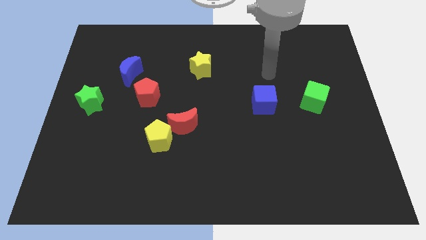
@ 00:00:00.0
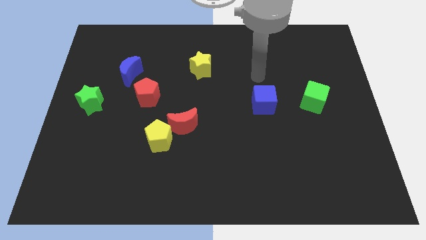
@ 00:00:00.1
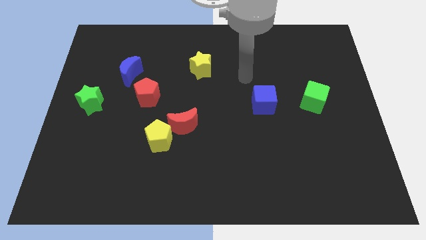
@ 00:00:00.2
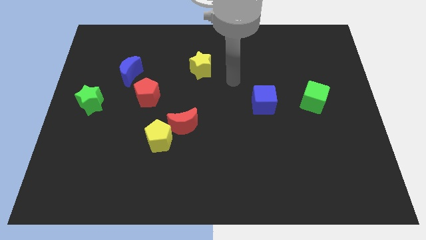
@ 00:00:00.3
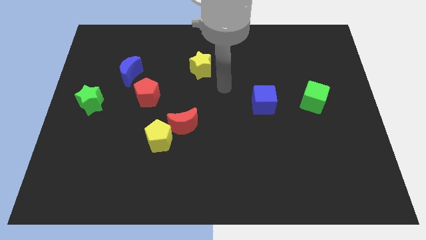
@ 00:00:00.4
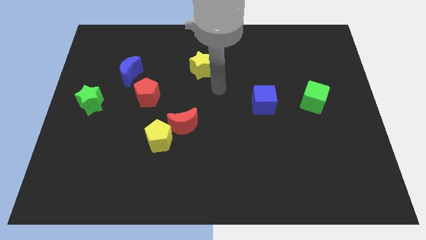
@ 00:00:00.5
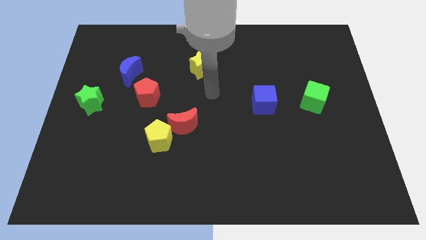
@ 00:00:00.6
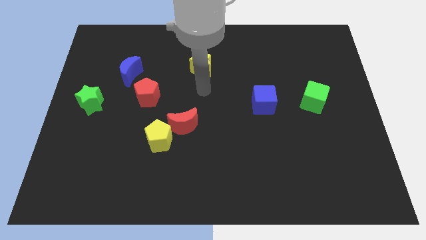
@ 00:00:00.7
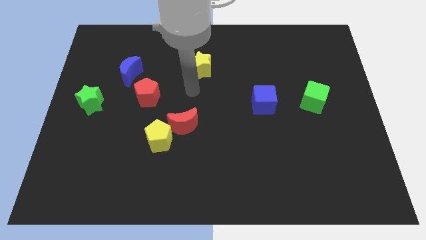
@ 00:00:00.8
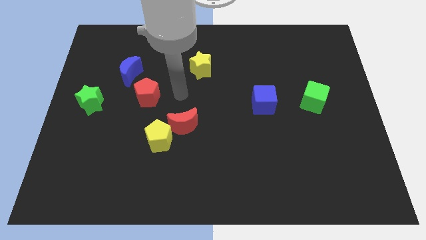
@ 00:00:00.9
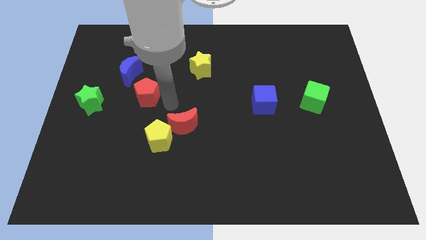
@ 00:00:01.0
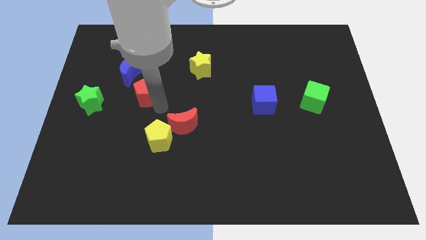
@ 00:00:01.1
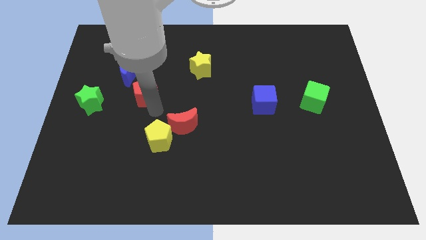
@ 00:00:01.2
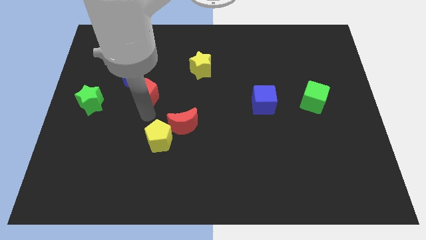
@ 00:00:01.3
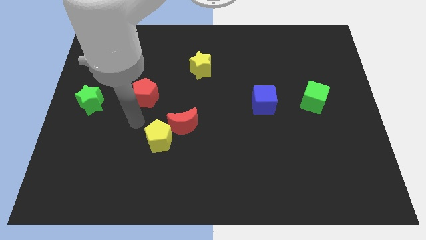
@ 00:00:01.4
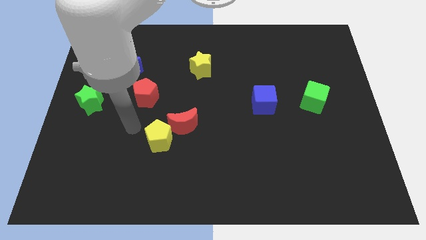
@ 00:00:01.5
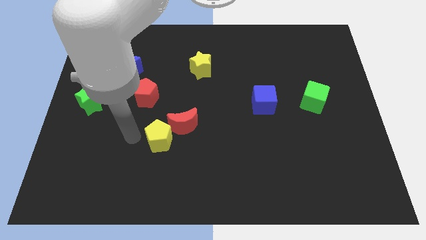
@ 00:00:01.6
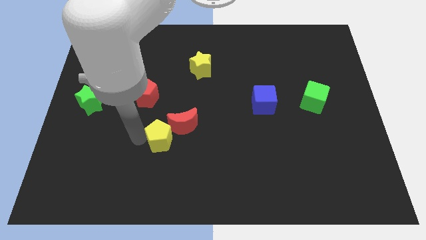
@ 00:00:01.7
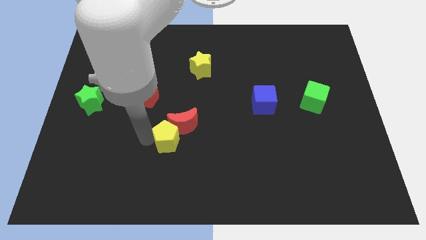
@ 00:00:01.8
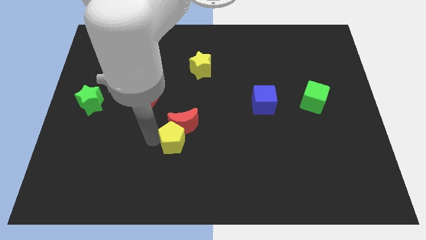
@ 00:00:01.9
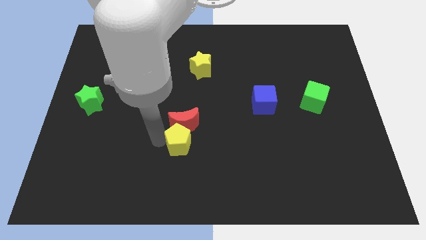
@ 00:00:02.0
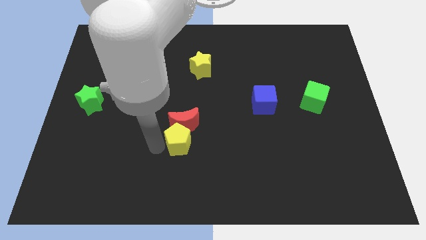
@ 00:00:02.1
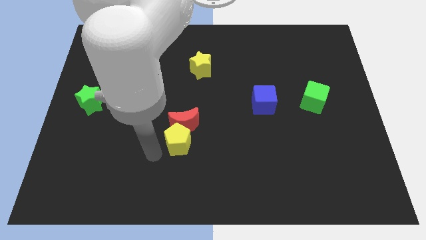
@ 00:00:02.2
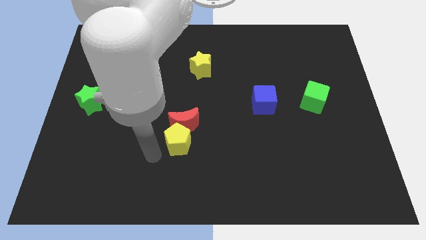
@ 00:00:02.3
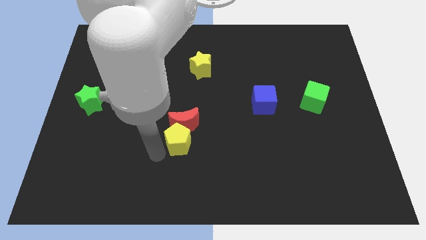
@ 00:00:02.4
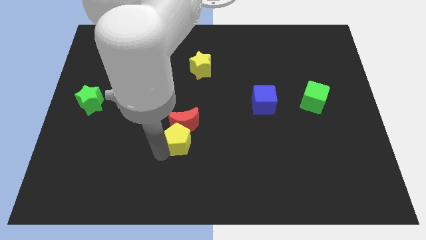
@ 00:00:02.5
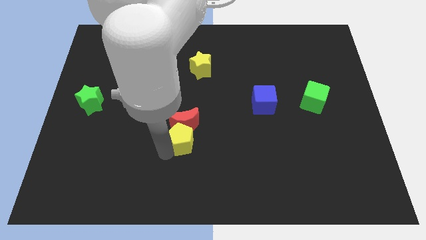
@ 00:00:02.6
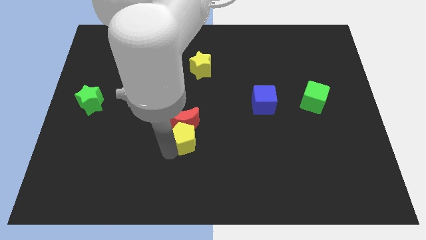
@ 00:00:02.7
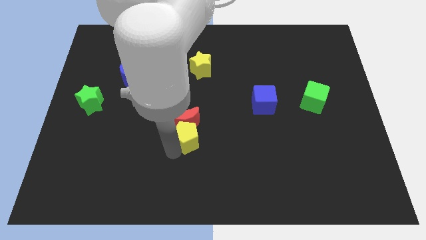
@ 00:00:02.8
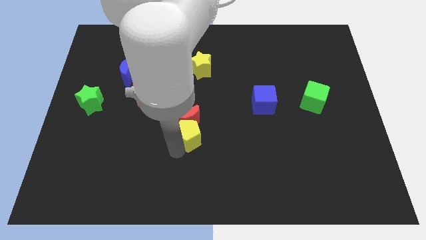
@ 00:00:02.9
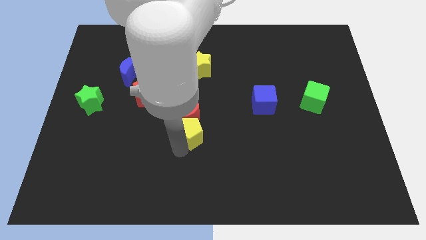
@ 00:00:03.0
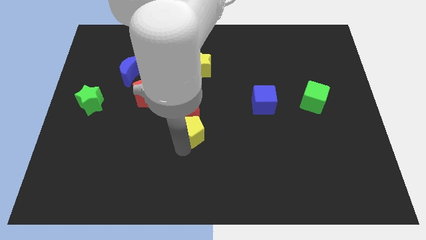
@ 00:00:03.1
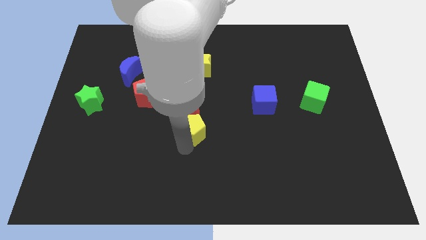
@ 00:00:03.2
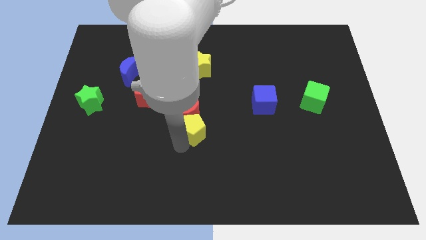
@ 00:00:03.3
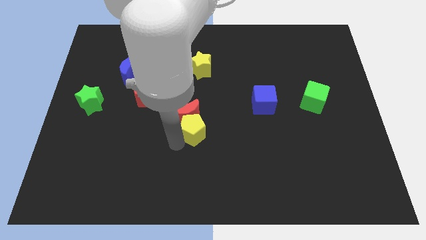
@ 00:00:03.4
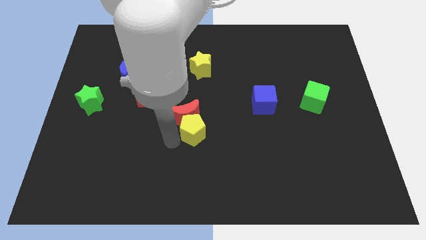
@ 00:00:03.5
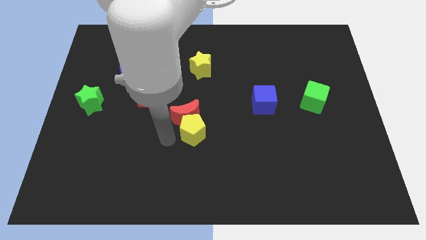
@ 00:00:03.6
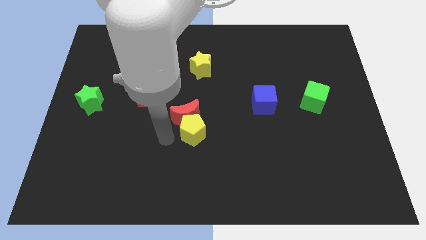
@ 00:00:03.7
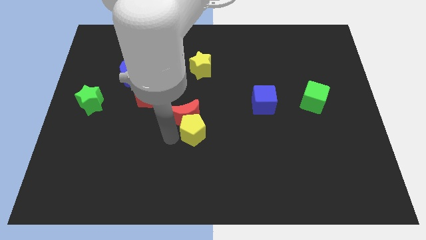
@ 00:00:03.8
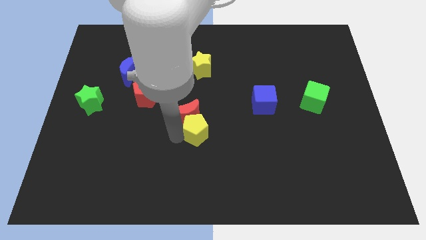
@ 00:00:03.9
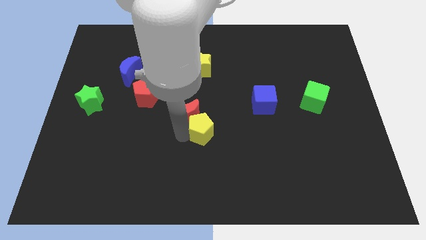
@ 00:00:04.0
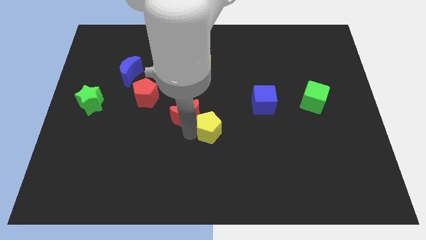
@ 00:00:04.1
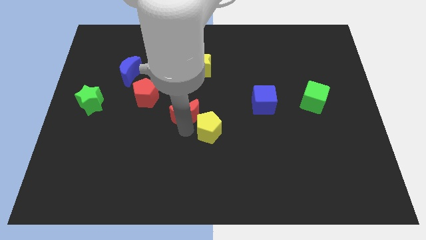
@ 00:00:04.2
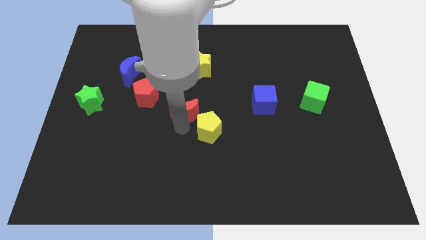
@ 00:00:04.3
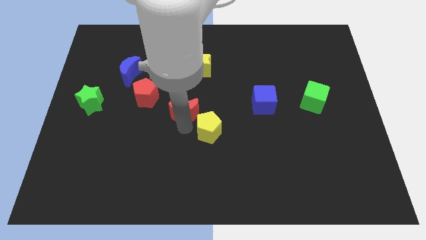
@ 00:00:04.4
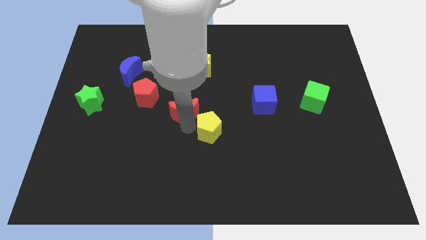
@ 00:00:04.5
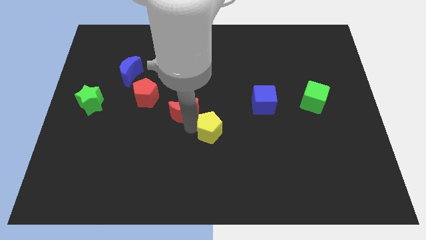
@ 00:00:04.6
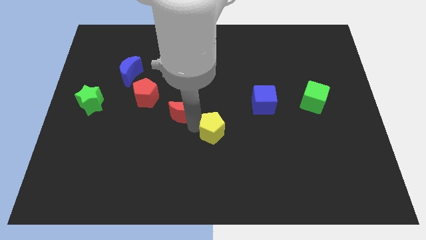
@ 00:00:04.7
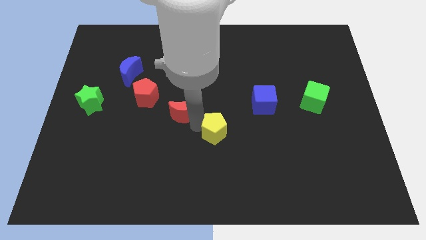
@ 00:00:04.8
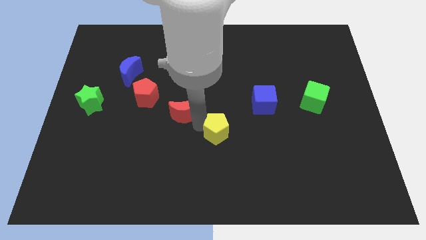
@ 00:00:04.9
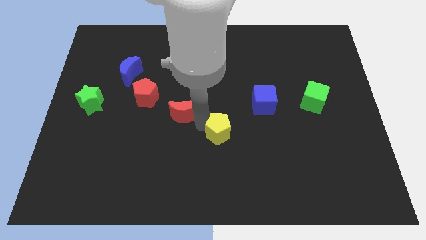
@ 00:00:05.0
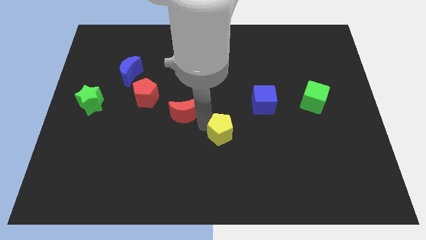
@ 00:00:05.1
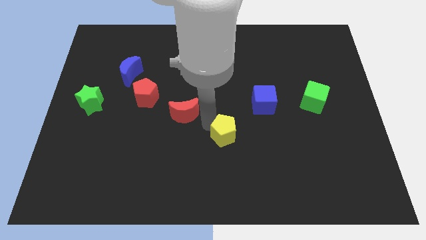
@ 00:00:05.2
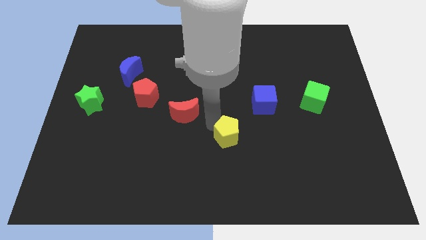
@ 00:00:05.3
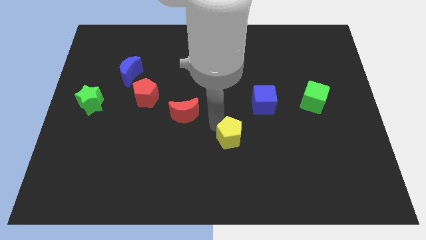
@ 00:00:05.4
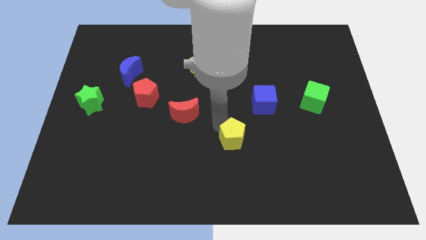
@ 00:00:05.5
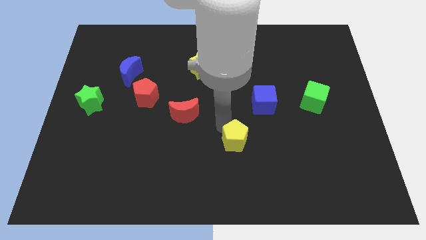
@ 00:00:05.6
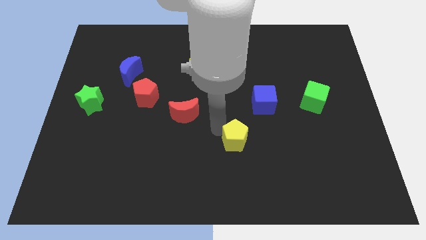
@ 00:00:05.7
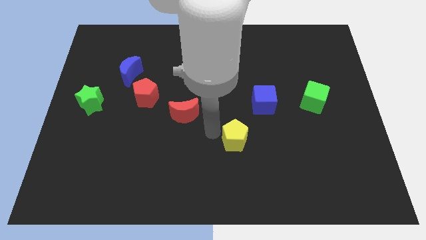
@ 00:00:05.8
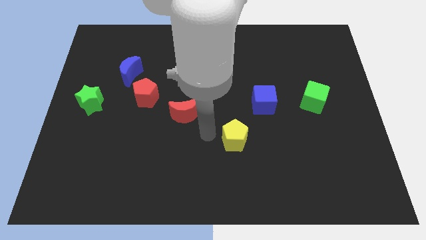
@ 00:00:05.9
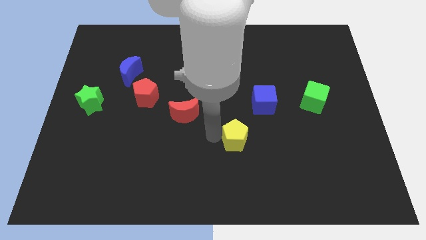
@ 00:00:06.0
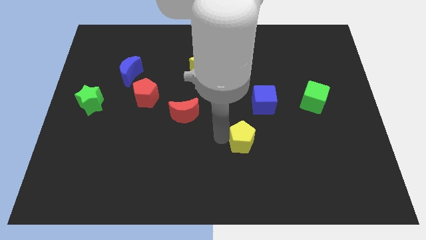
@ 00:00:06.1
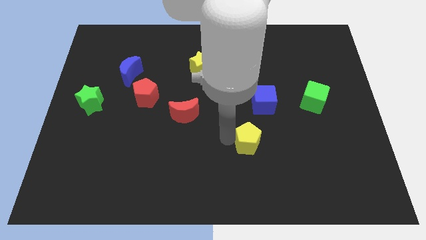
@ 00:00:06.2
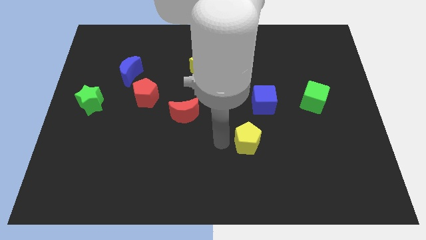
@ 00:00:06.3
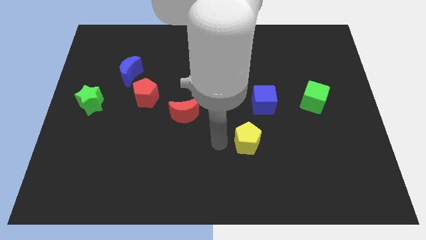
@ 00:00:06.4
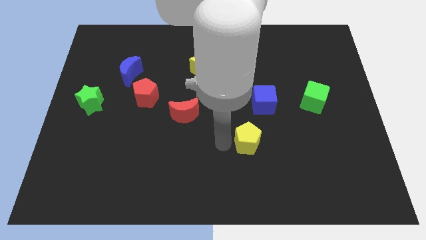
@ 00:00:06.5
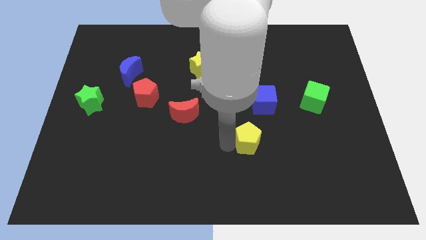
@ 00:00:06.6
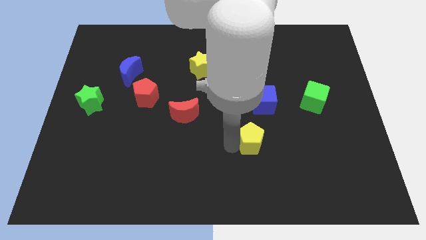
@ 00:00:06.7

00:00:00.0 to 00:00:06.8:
push the yellow pentagon right

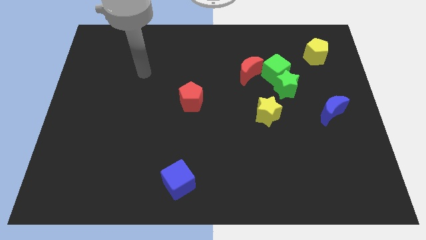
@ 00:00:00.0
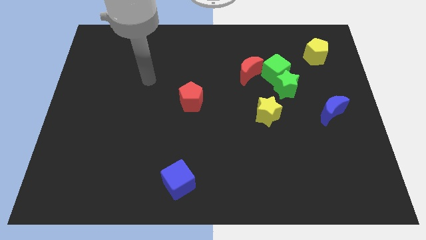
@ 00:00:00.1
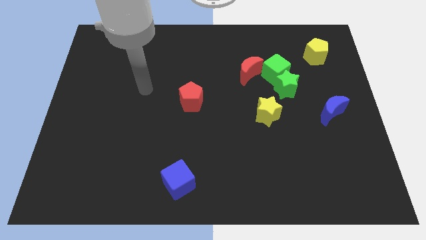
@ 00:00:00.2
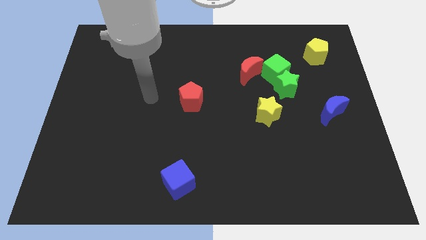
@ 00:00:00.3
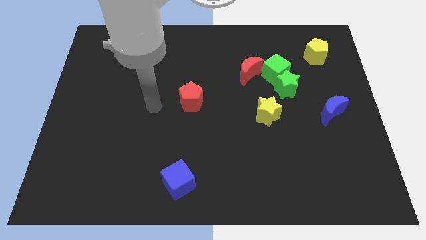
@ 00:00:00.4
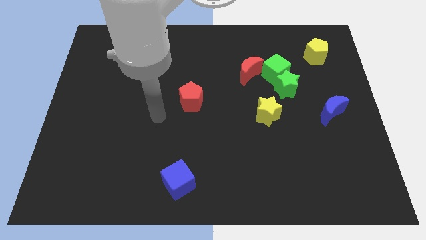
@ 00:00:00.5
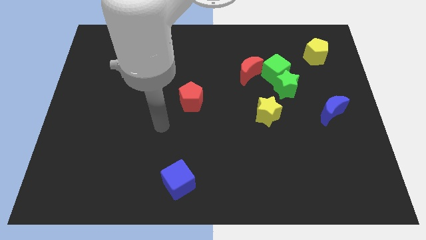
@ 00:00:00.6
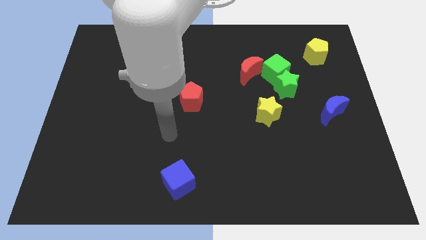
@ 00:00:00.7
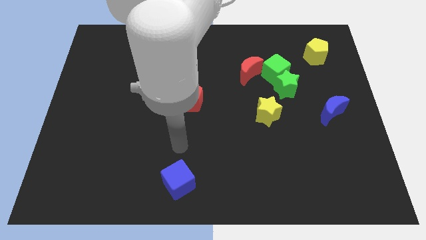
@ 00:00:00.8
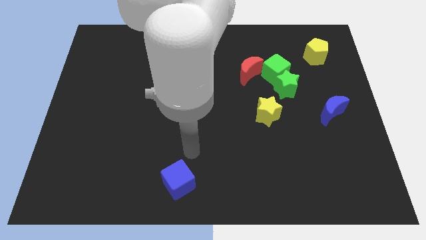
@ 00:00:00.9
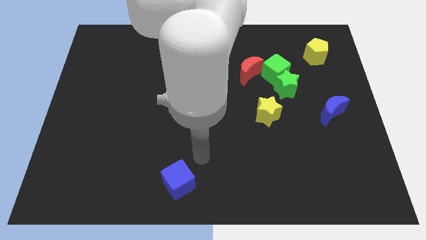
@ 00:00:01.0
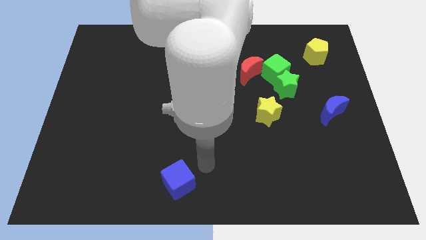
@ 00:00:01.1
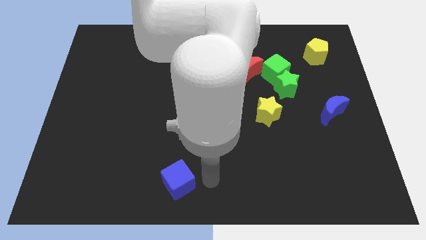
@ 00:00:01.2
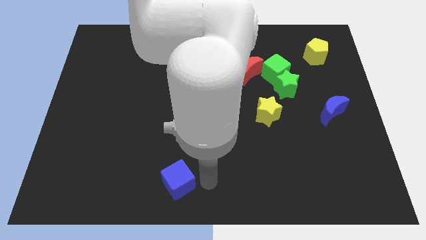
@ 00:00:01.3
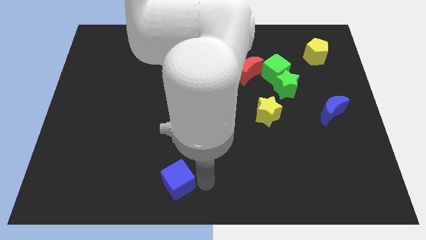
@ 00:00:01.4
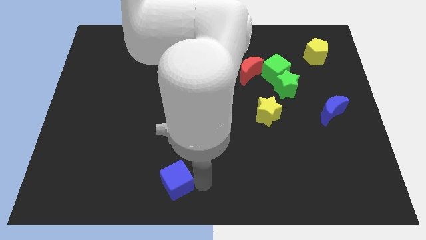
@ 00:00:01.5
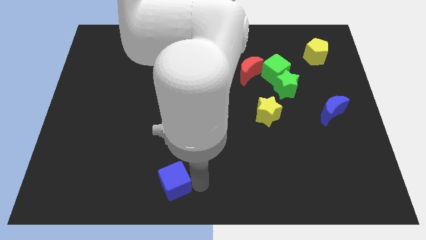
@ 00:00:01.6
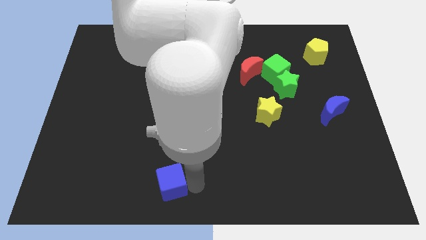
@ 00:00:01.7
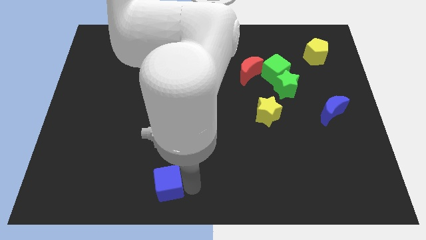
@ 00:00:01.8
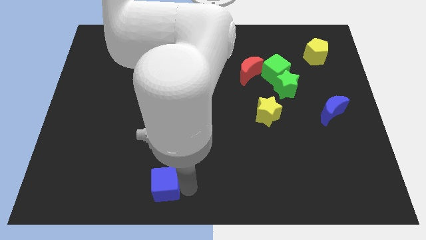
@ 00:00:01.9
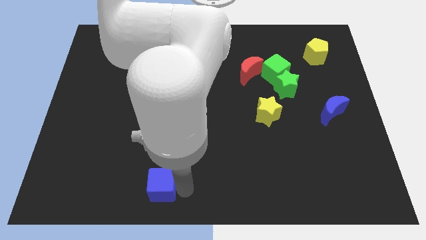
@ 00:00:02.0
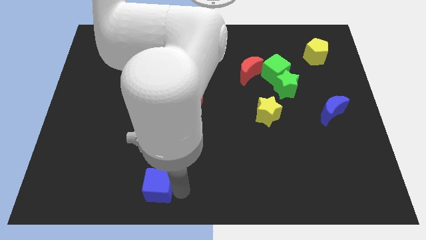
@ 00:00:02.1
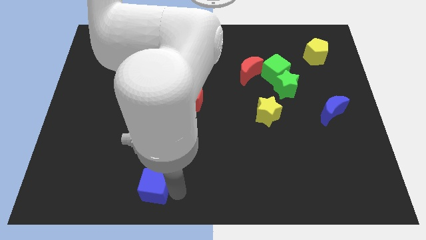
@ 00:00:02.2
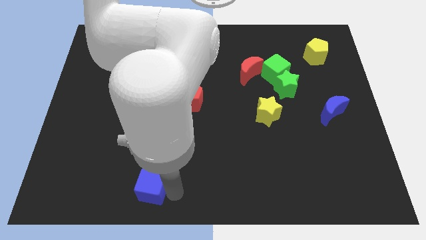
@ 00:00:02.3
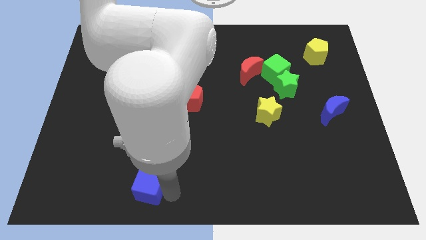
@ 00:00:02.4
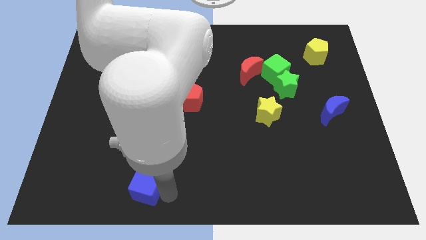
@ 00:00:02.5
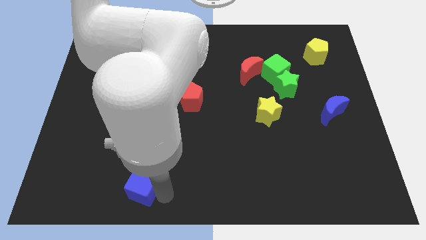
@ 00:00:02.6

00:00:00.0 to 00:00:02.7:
slide the blue cube somewhat to the left
